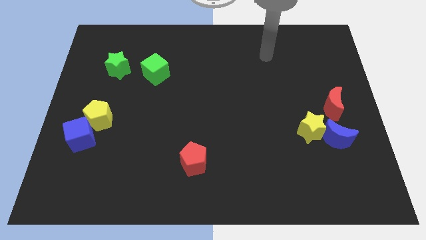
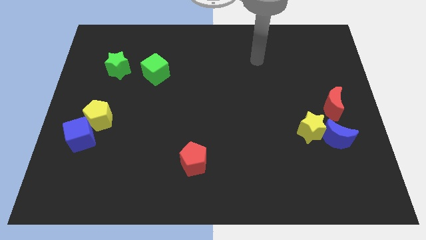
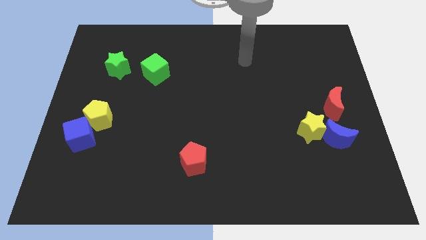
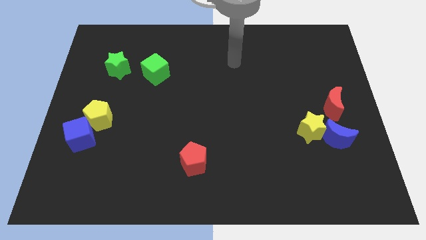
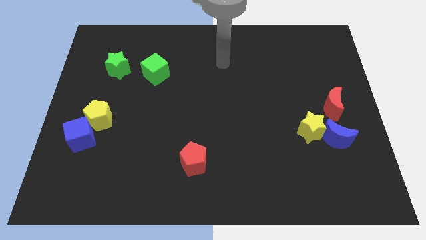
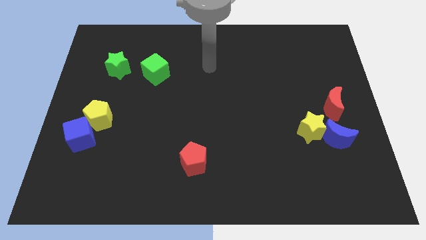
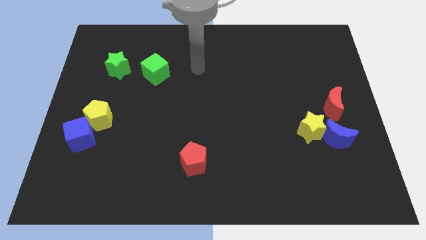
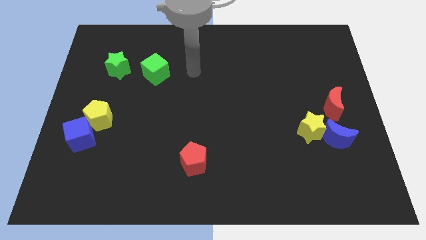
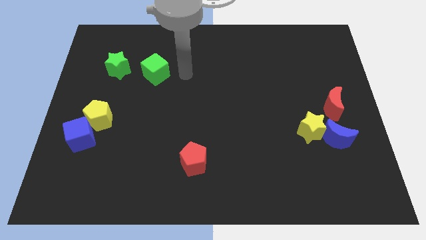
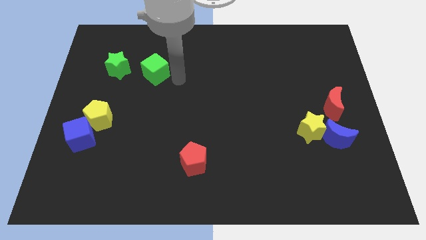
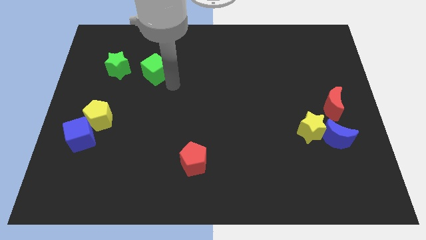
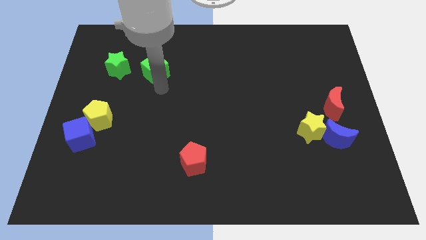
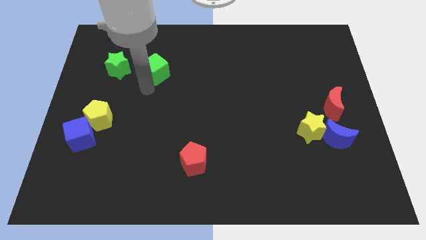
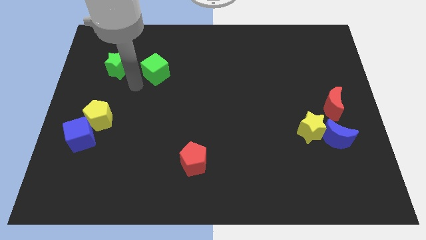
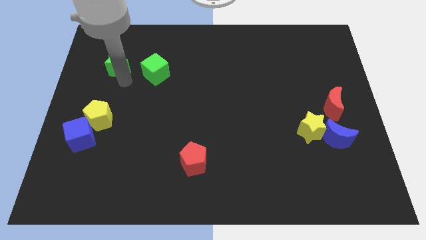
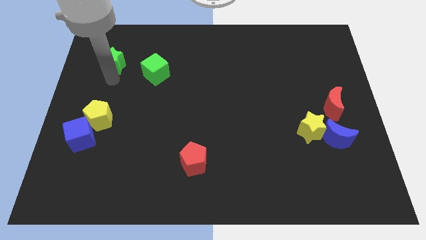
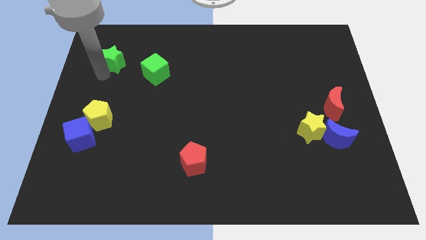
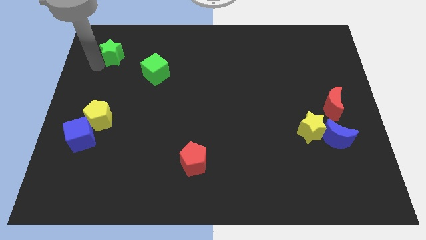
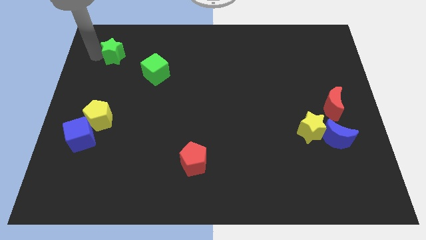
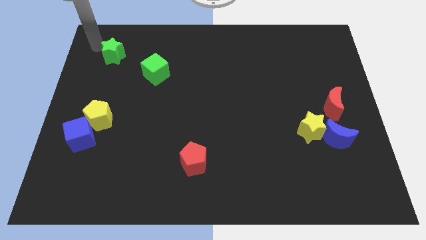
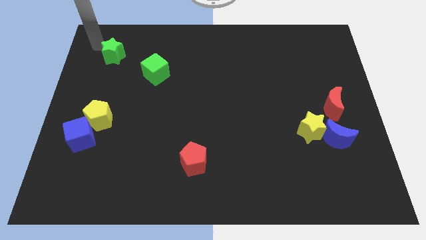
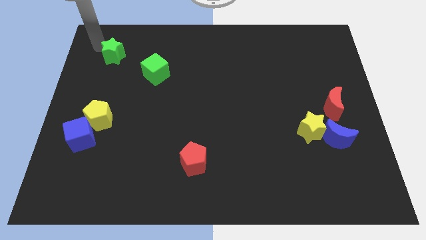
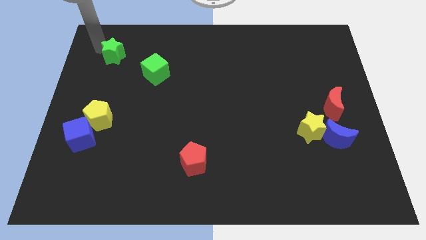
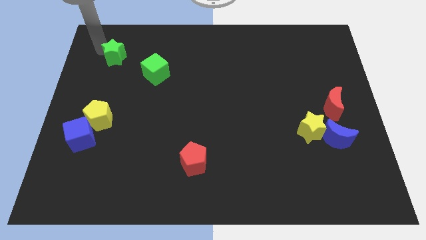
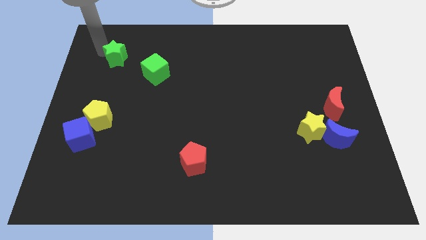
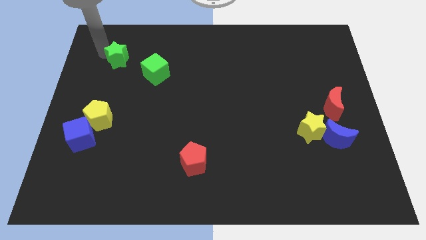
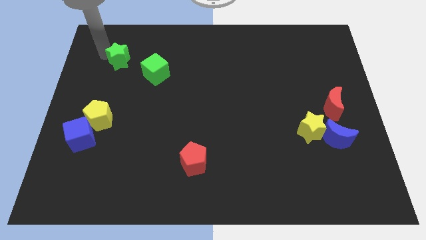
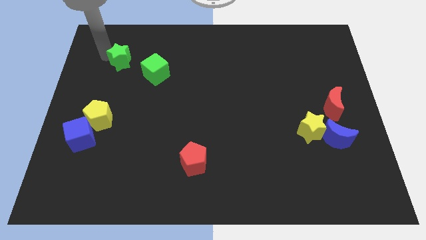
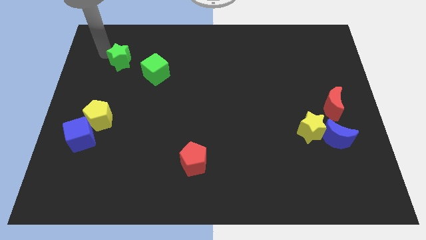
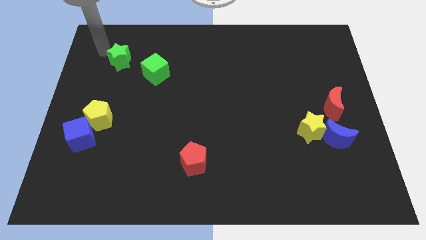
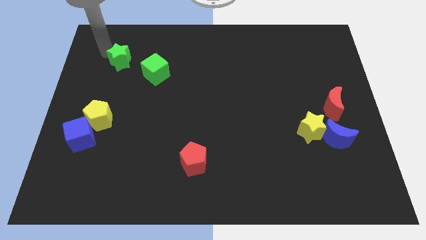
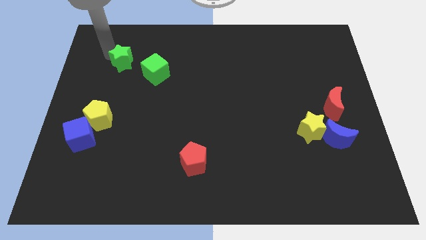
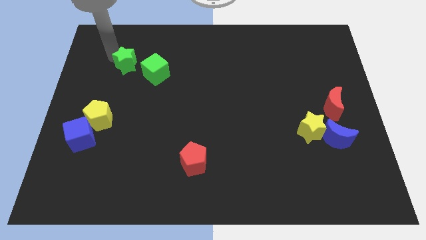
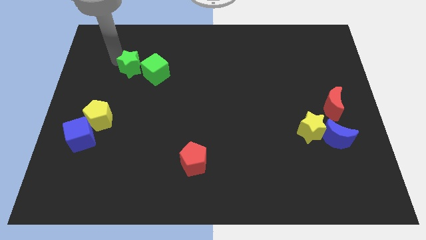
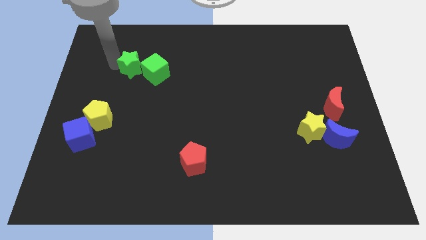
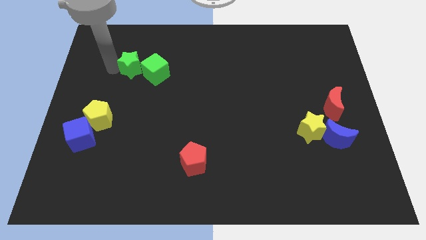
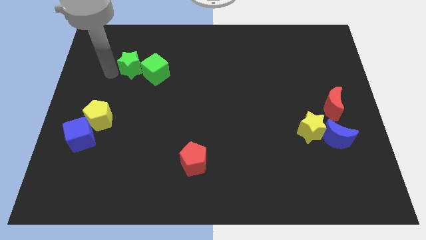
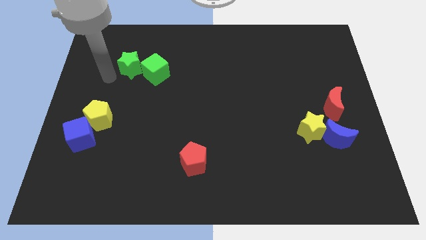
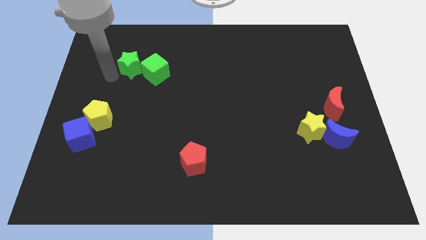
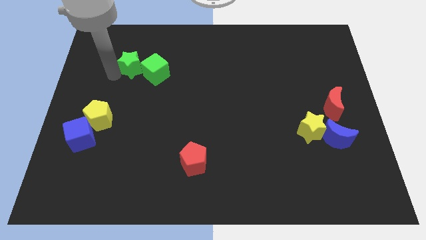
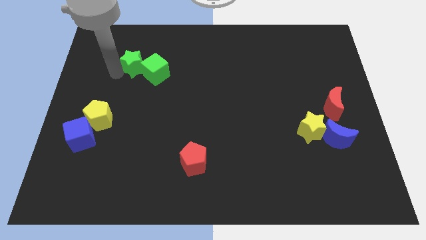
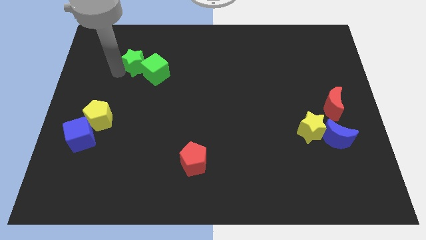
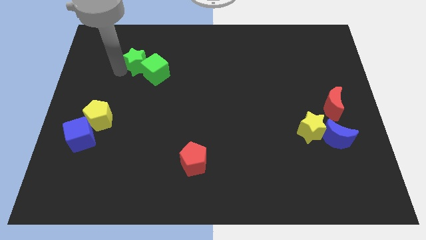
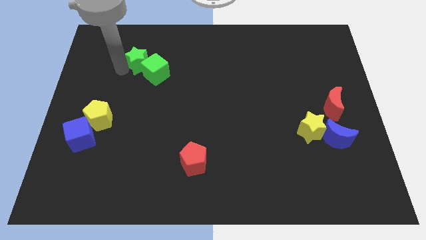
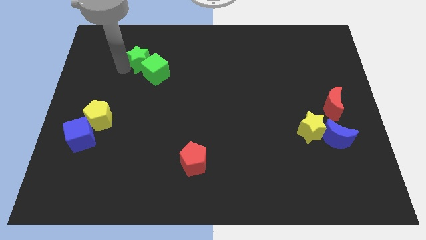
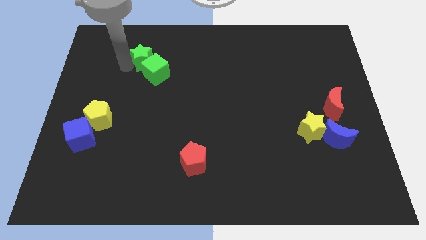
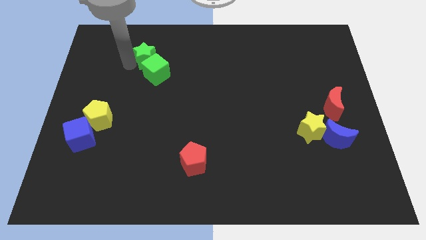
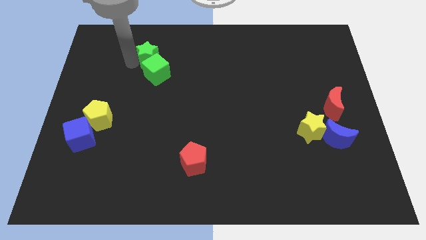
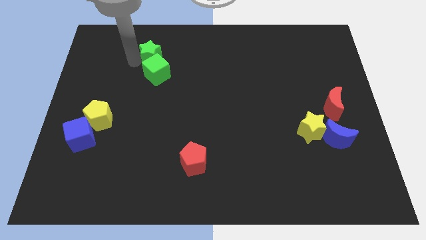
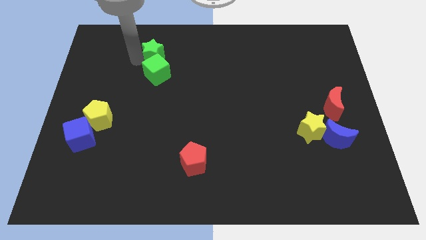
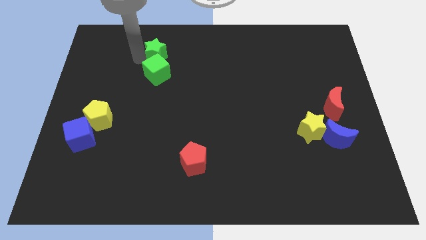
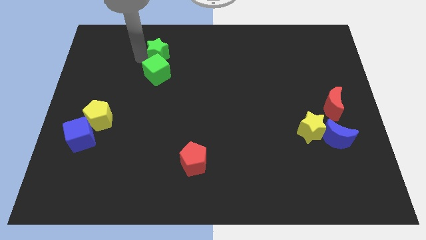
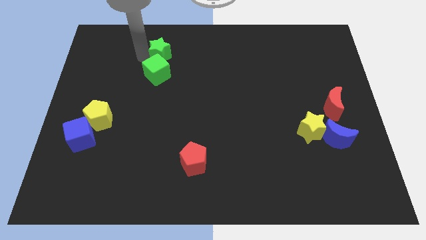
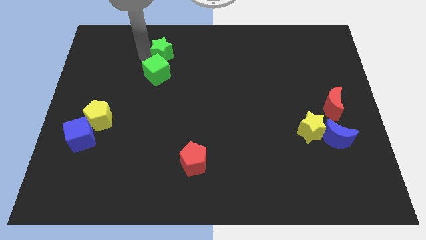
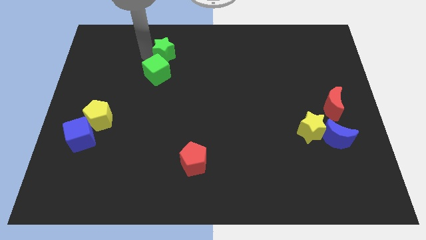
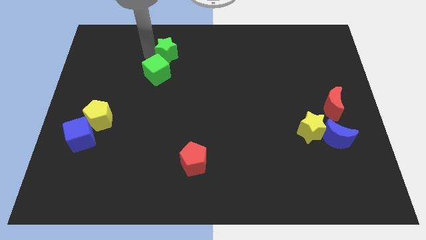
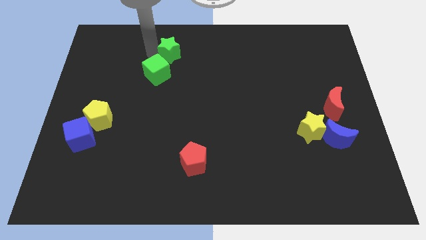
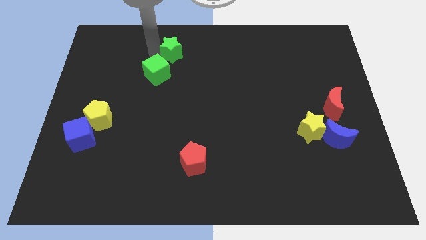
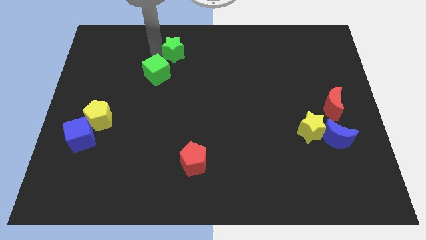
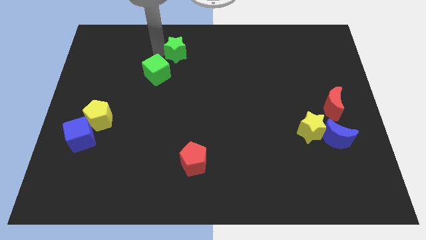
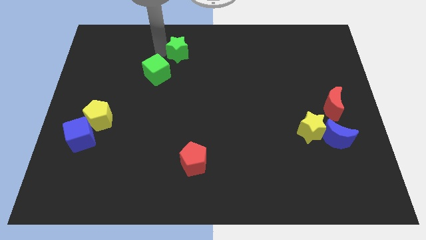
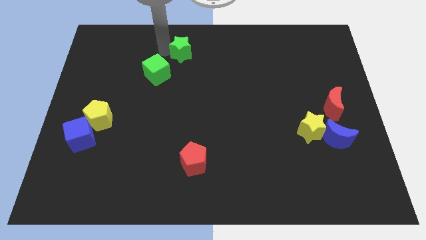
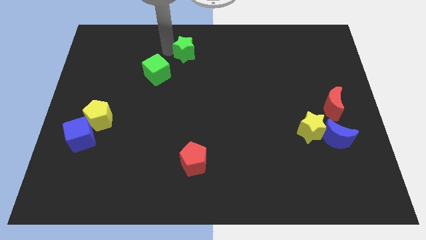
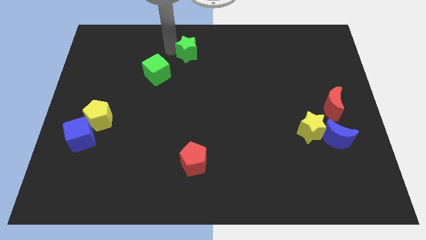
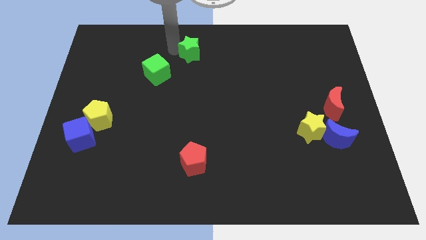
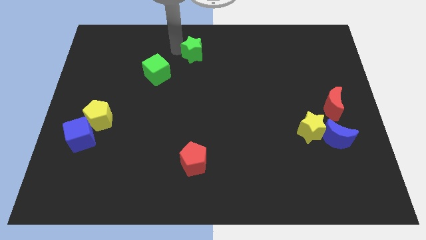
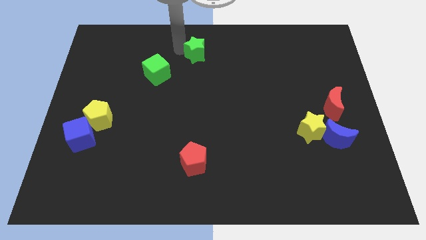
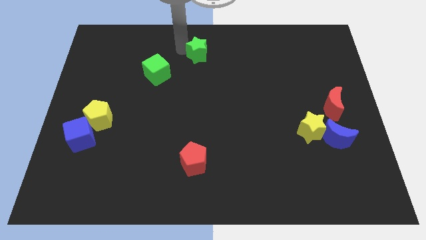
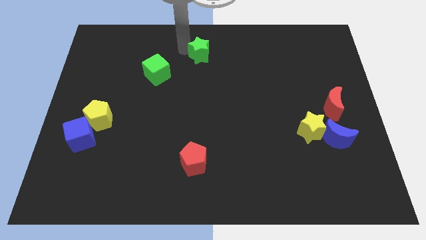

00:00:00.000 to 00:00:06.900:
move the green star right

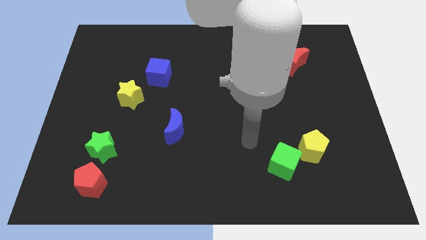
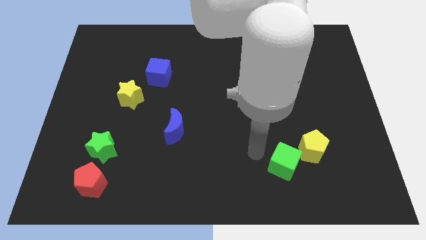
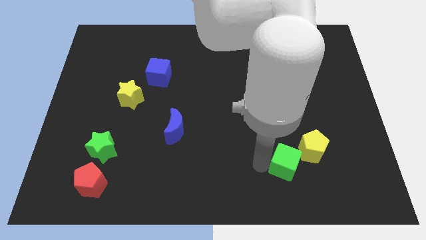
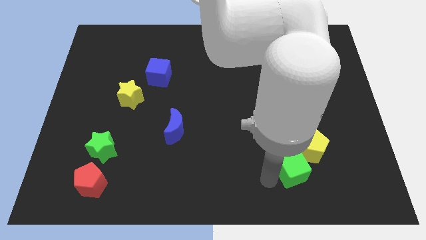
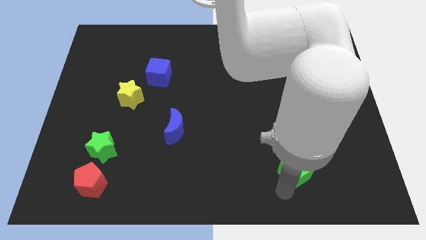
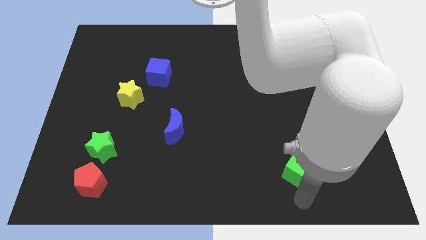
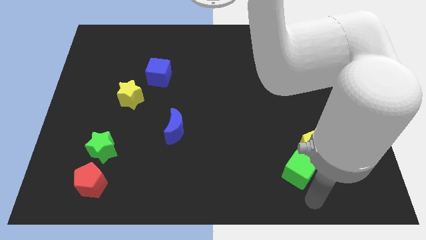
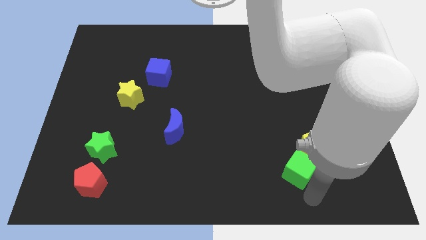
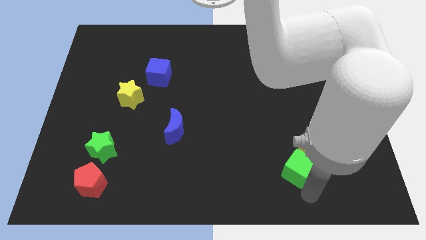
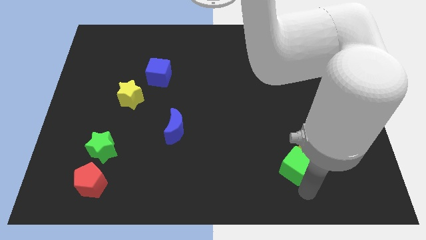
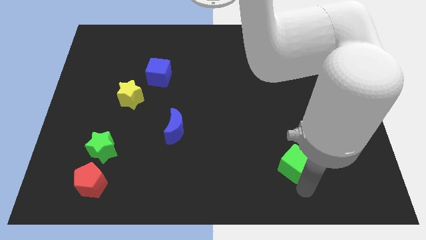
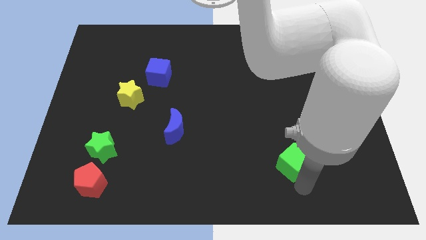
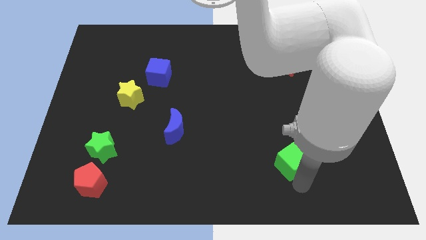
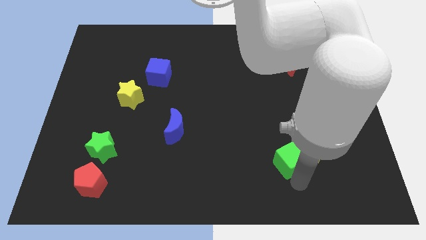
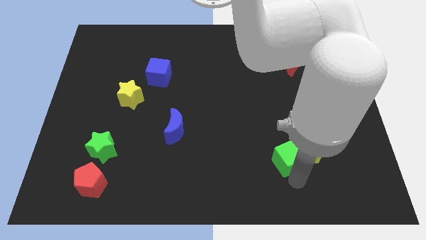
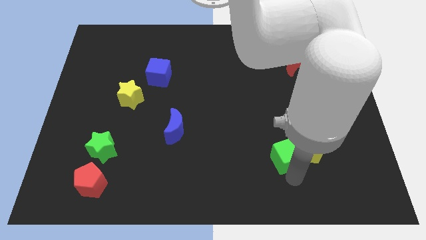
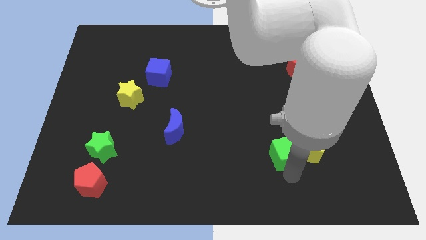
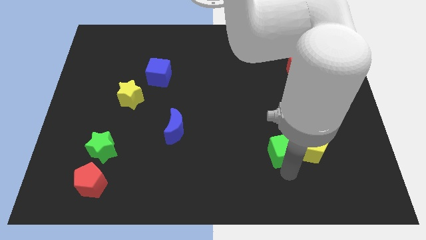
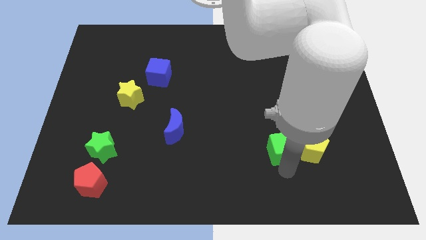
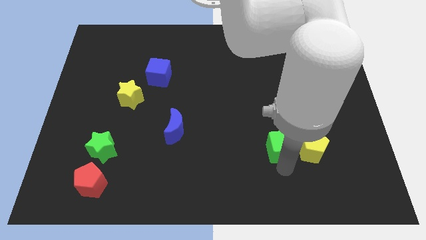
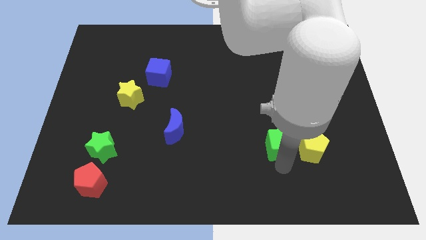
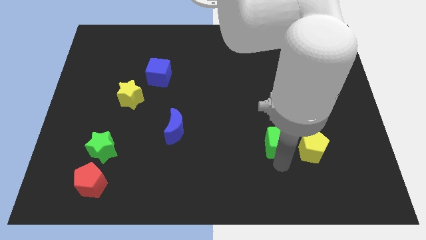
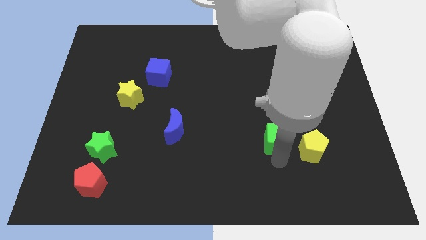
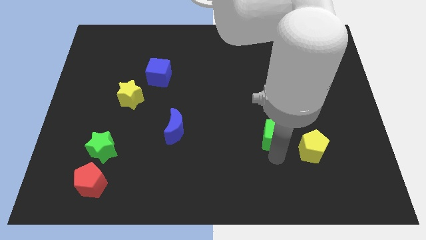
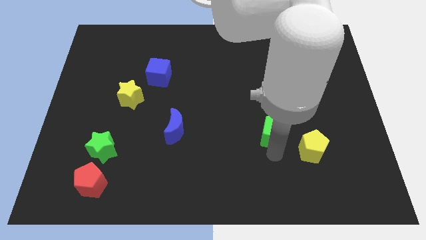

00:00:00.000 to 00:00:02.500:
push the green cube upwards a bit
